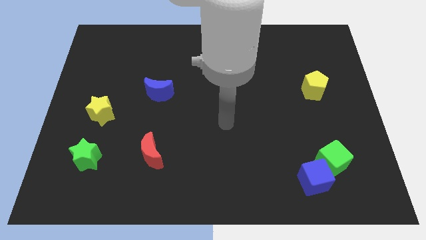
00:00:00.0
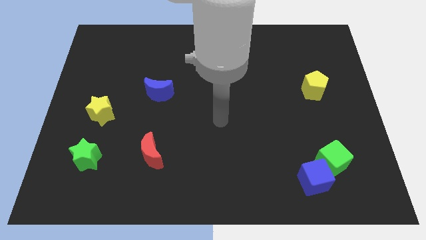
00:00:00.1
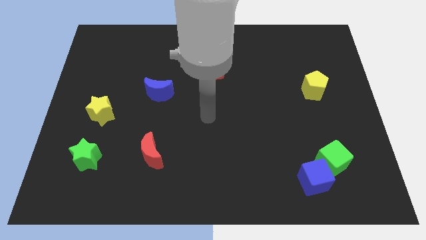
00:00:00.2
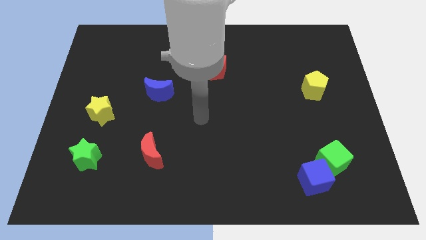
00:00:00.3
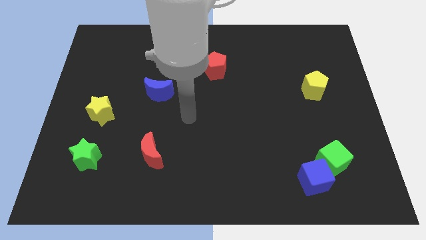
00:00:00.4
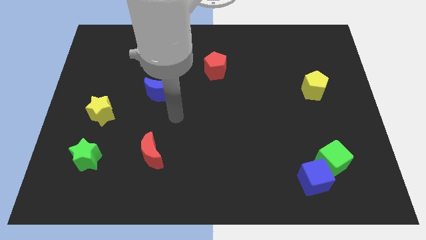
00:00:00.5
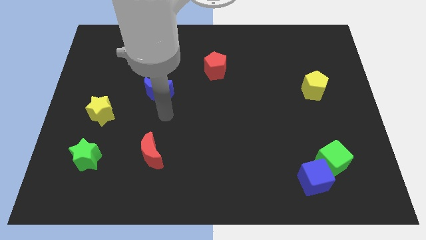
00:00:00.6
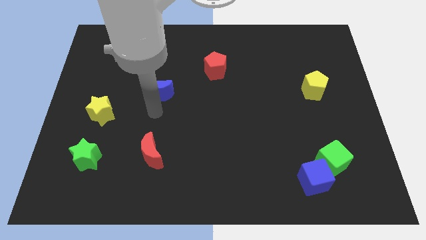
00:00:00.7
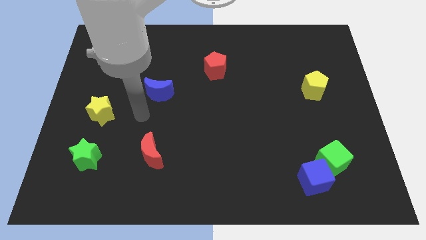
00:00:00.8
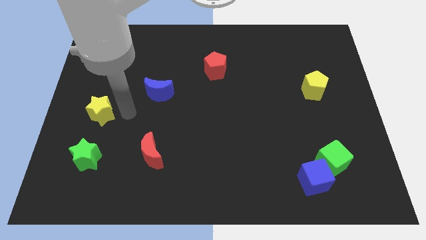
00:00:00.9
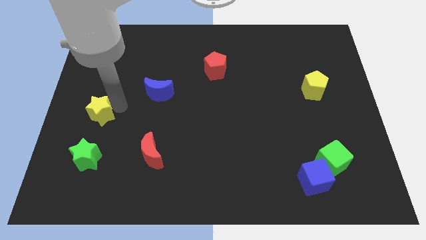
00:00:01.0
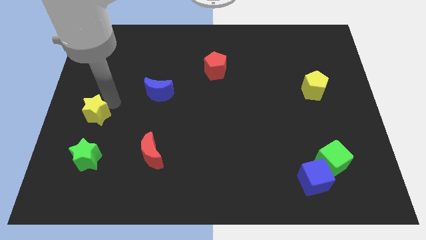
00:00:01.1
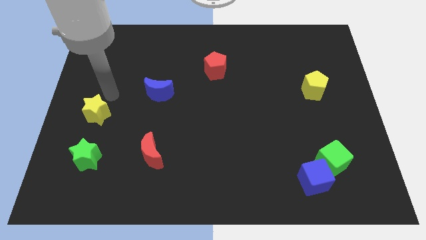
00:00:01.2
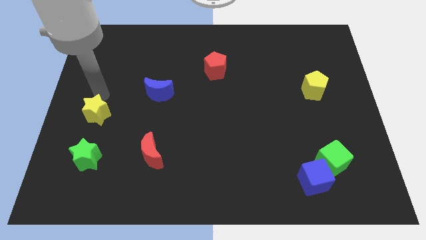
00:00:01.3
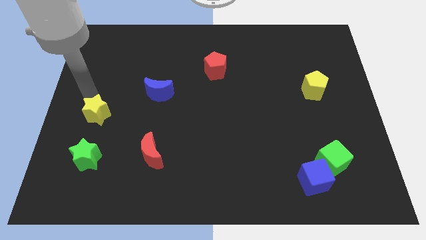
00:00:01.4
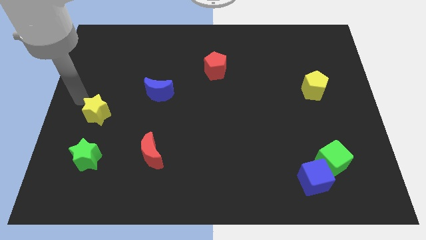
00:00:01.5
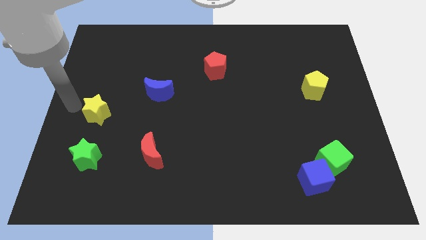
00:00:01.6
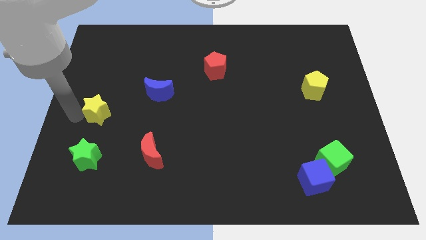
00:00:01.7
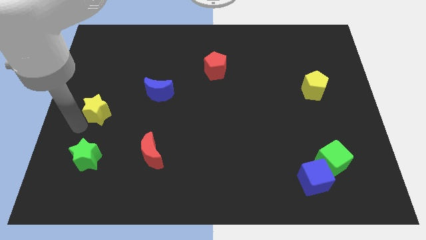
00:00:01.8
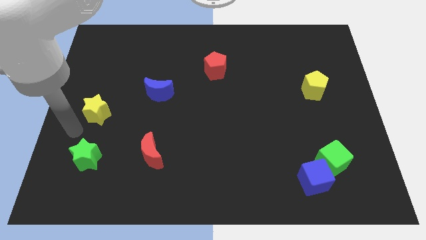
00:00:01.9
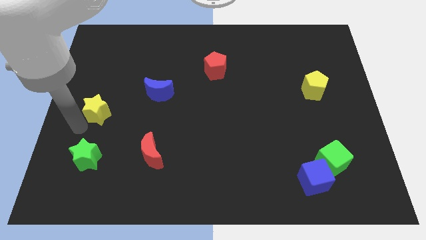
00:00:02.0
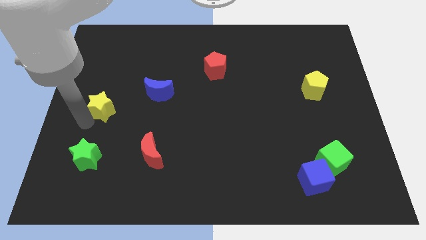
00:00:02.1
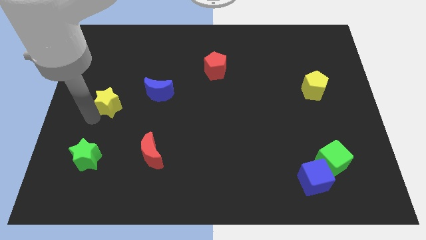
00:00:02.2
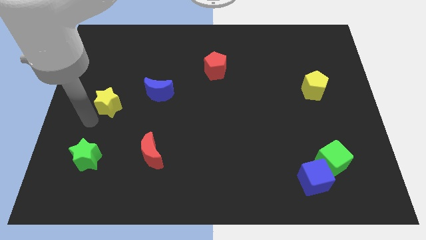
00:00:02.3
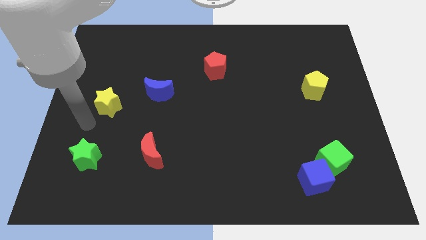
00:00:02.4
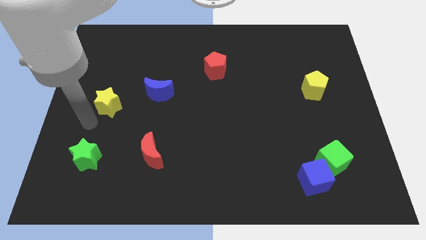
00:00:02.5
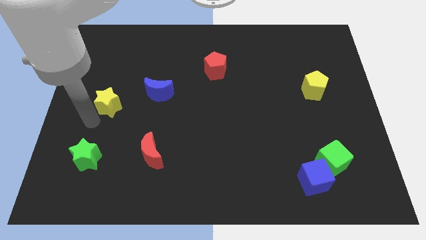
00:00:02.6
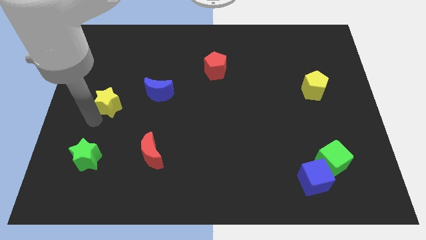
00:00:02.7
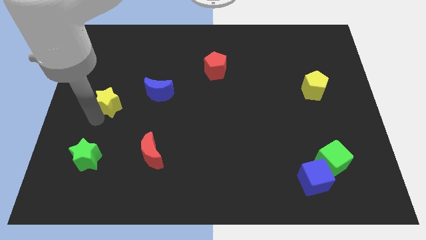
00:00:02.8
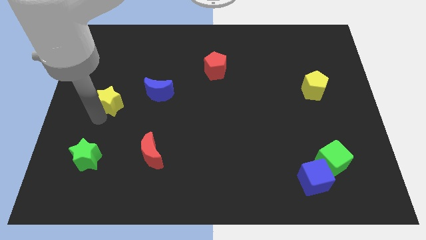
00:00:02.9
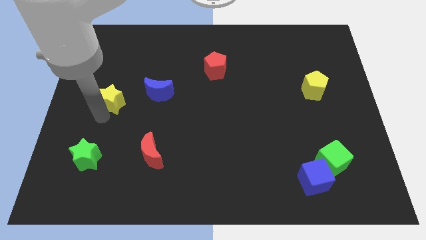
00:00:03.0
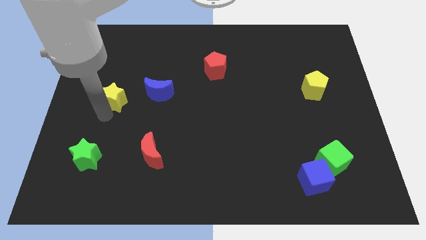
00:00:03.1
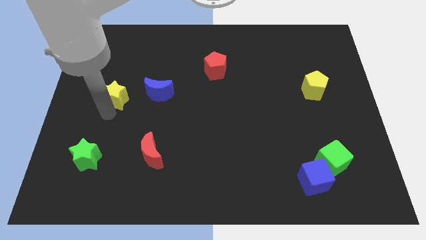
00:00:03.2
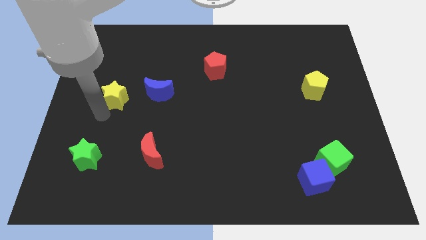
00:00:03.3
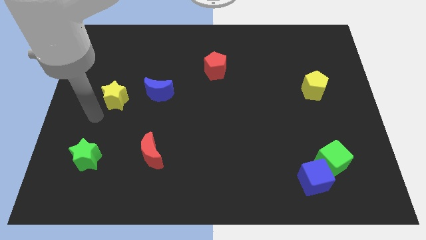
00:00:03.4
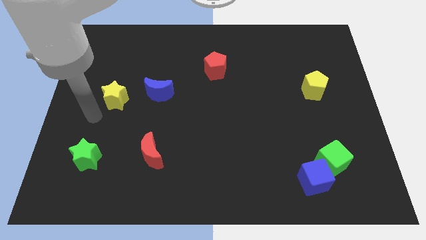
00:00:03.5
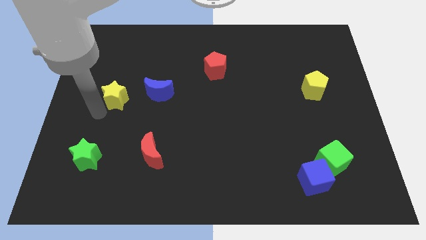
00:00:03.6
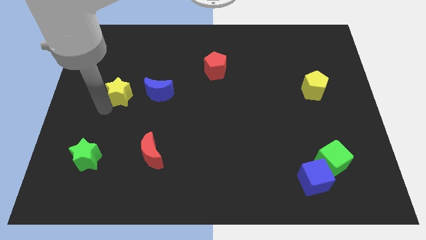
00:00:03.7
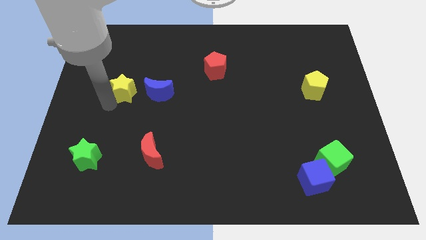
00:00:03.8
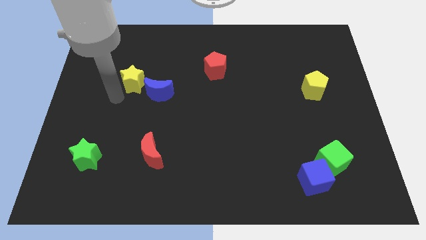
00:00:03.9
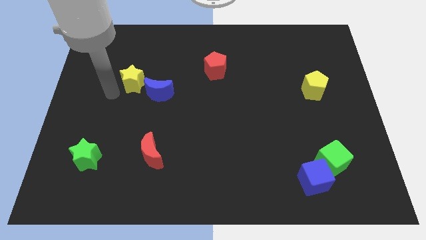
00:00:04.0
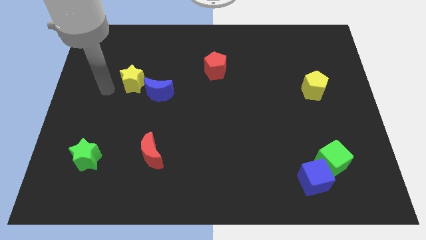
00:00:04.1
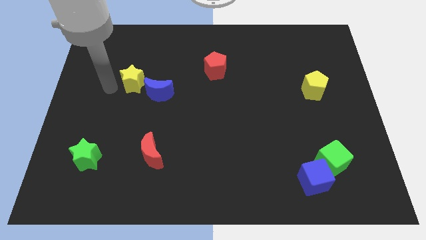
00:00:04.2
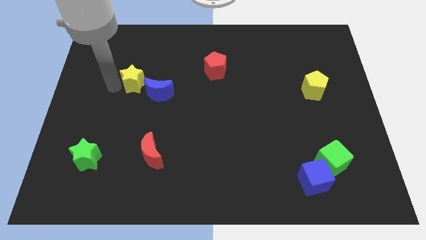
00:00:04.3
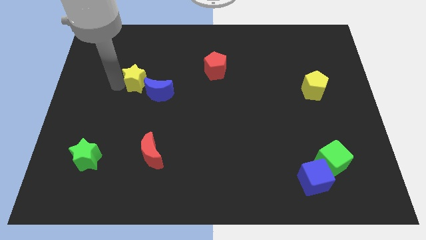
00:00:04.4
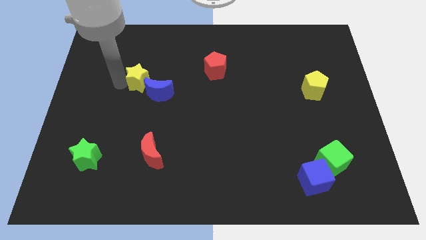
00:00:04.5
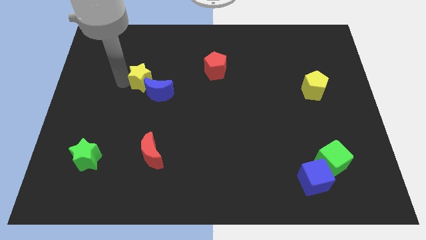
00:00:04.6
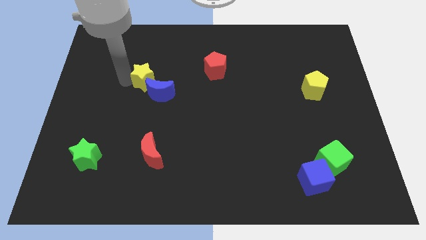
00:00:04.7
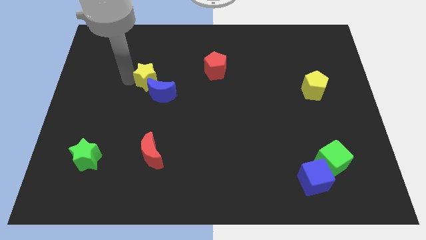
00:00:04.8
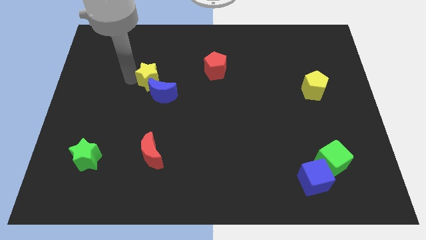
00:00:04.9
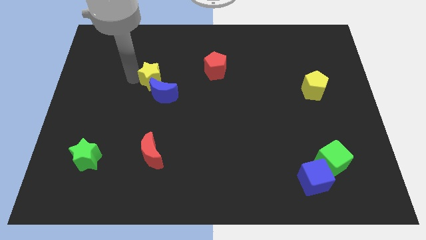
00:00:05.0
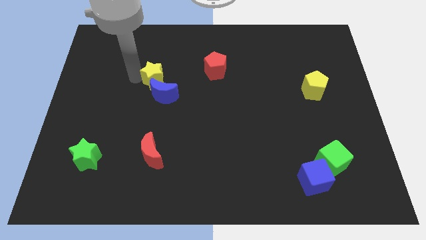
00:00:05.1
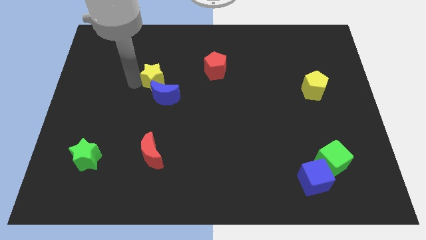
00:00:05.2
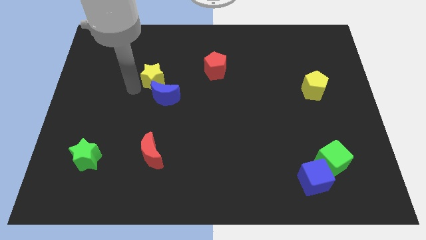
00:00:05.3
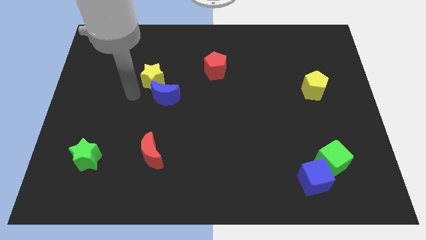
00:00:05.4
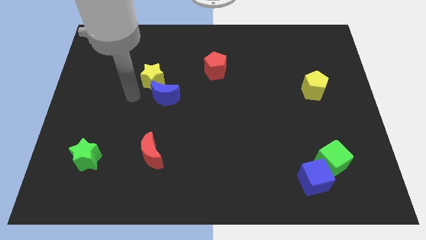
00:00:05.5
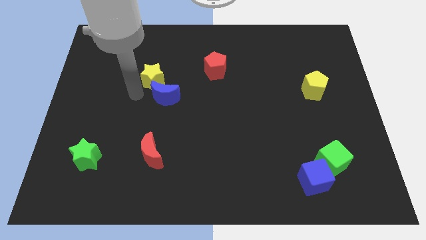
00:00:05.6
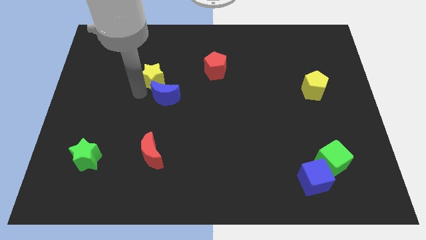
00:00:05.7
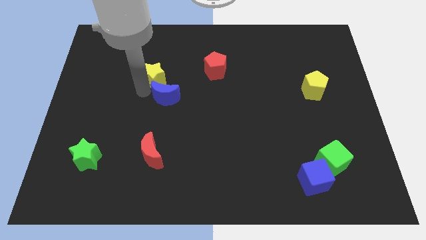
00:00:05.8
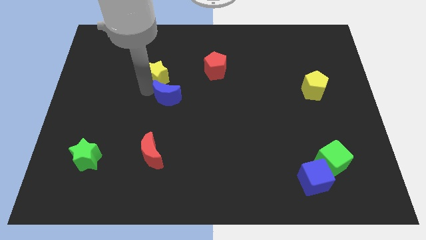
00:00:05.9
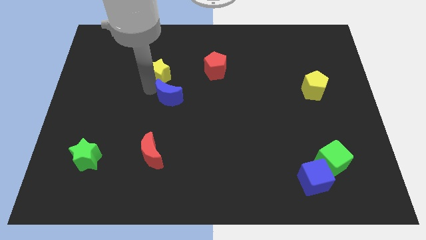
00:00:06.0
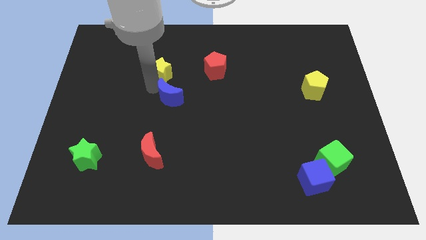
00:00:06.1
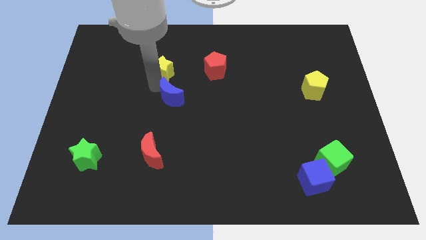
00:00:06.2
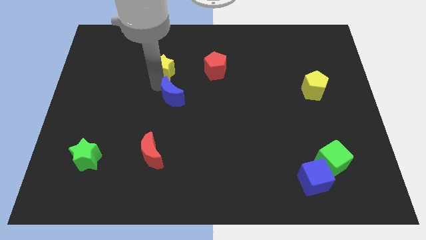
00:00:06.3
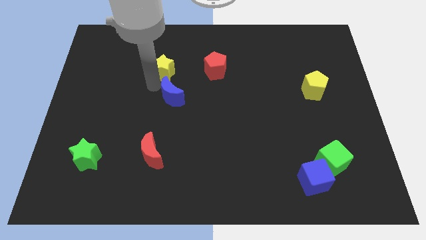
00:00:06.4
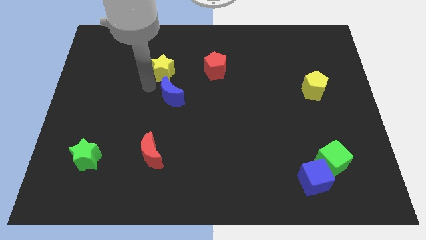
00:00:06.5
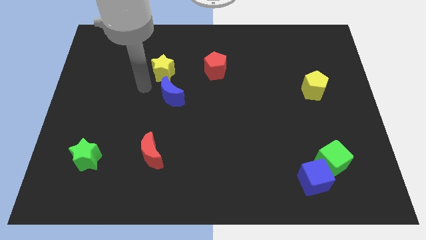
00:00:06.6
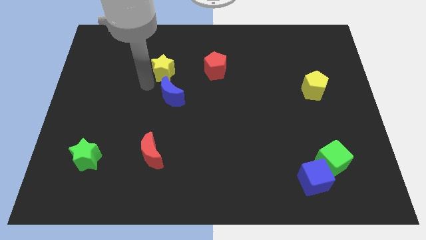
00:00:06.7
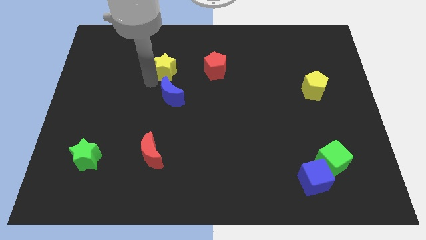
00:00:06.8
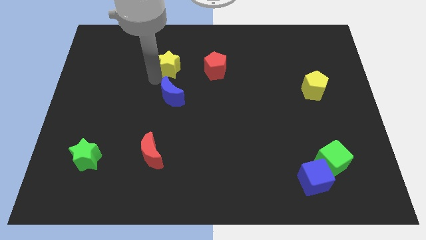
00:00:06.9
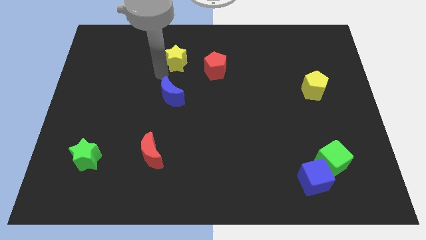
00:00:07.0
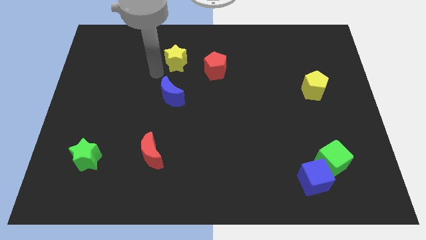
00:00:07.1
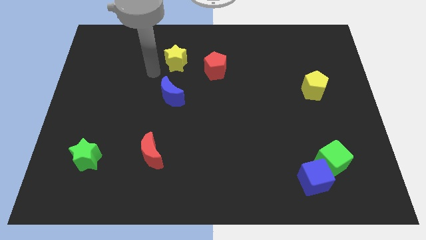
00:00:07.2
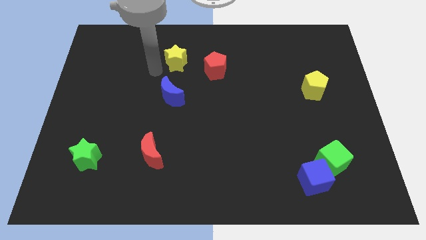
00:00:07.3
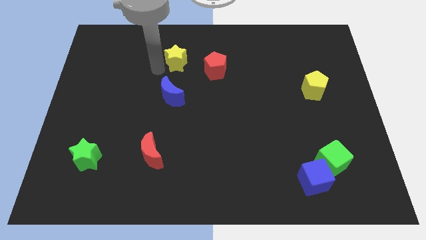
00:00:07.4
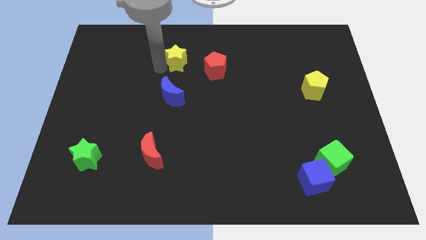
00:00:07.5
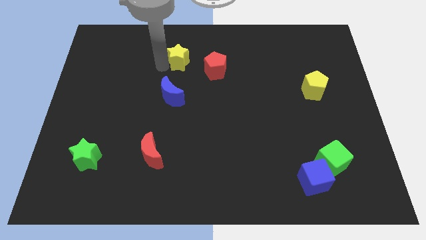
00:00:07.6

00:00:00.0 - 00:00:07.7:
push the yellow star to the top left side of the red pentagon

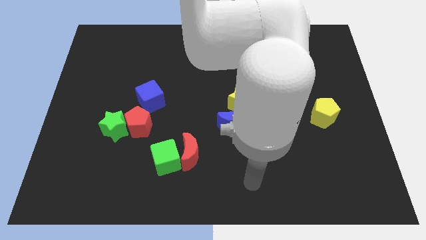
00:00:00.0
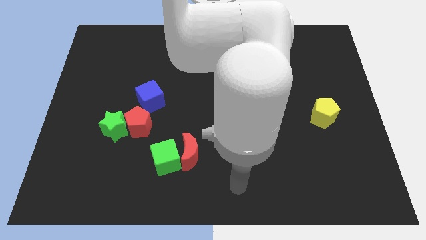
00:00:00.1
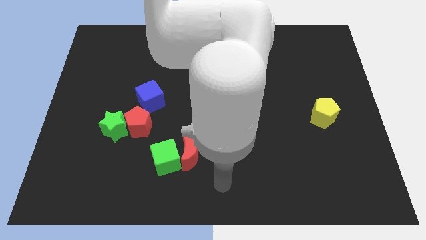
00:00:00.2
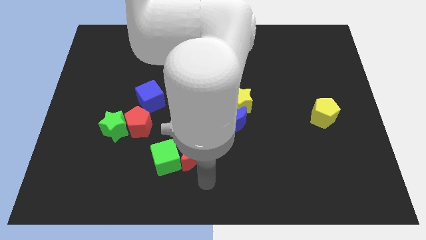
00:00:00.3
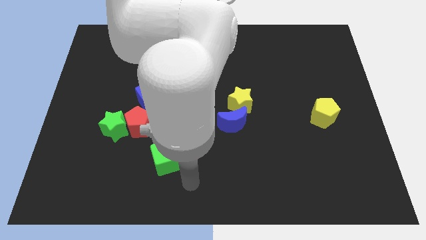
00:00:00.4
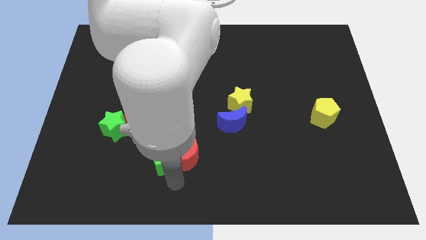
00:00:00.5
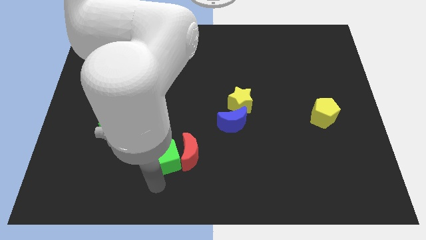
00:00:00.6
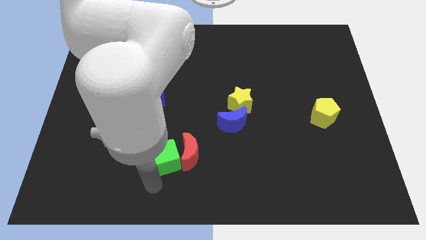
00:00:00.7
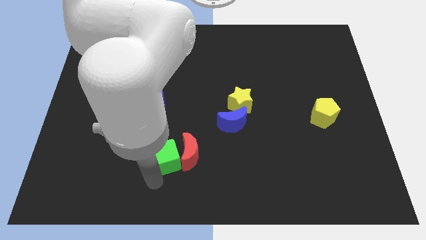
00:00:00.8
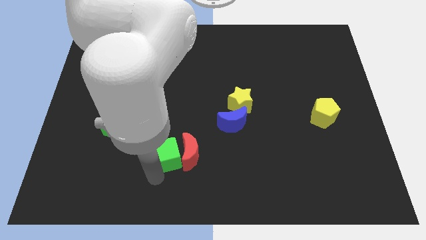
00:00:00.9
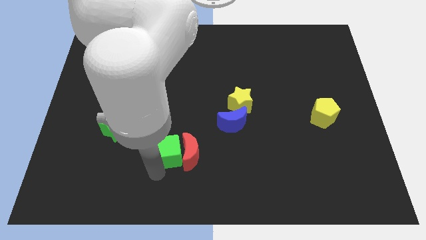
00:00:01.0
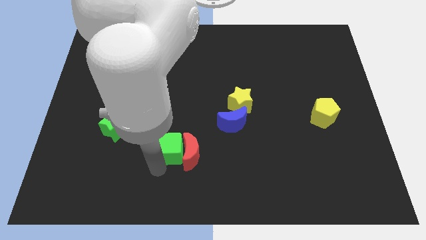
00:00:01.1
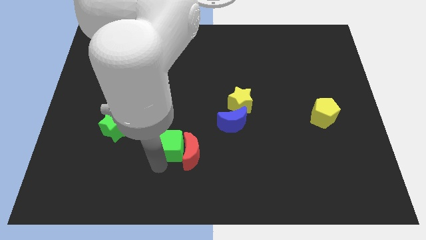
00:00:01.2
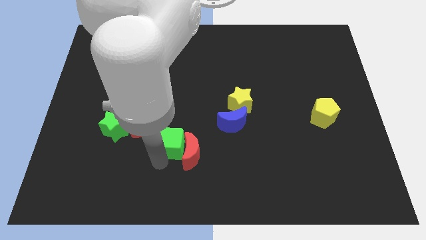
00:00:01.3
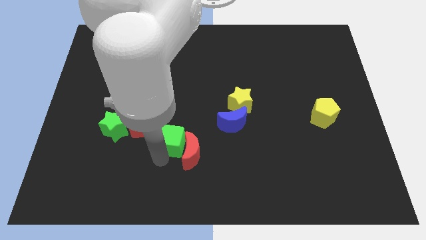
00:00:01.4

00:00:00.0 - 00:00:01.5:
put the green cube to the right of the red pentagon
